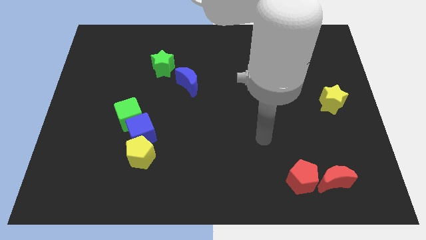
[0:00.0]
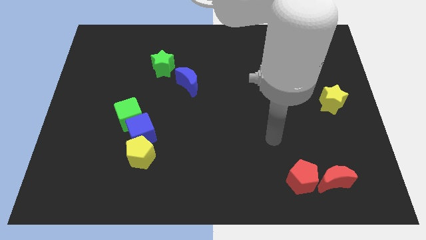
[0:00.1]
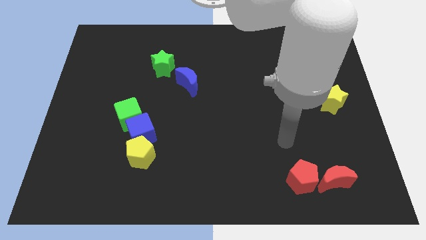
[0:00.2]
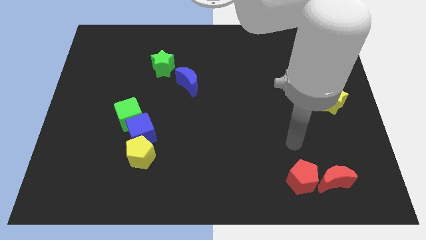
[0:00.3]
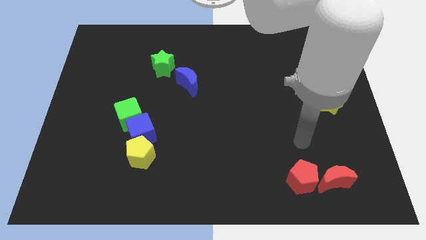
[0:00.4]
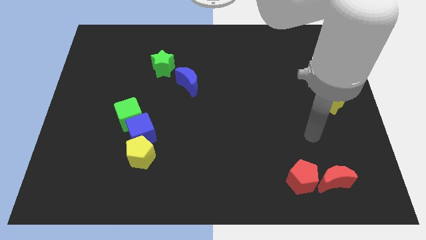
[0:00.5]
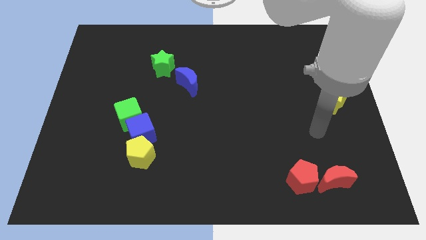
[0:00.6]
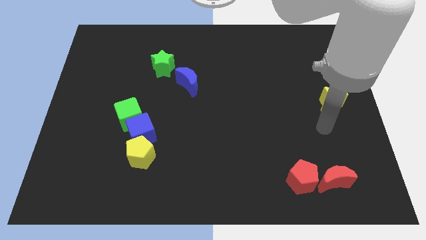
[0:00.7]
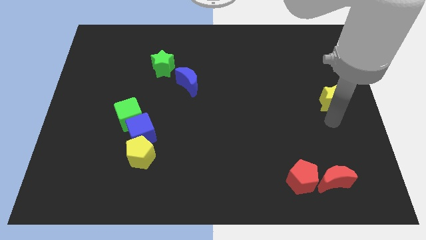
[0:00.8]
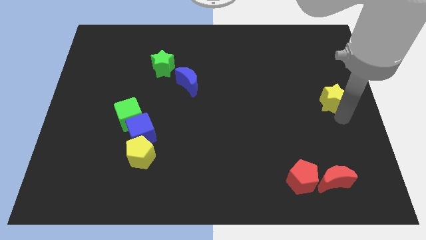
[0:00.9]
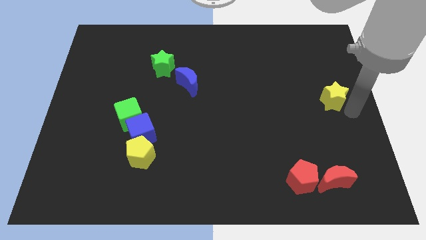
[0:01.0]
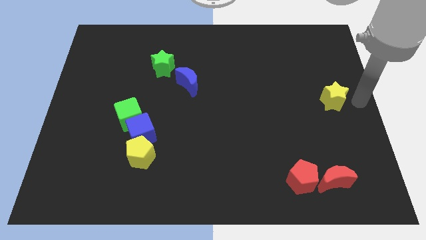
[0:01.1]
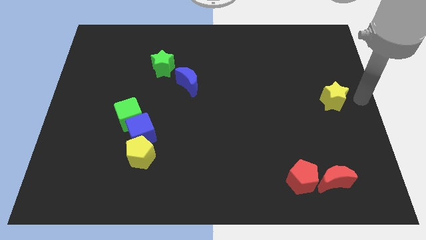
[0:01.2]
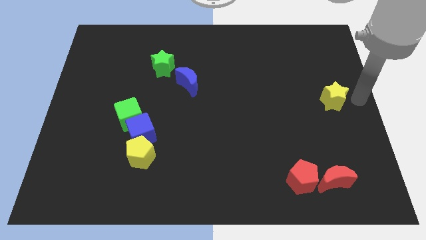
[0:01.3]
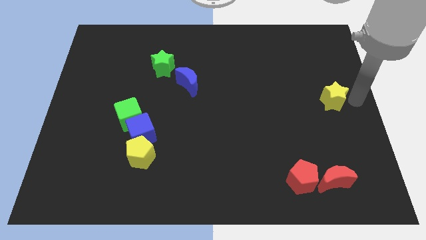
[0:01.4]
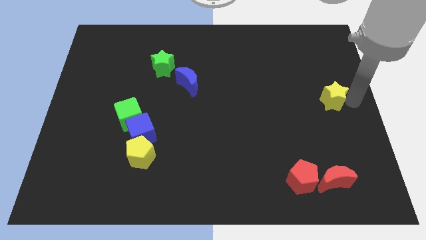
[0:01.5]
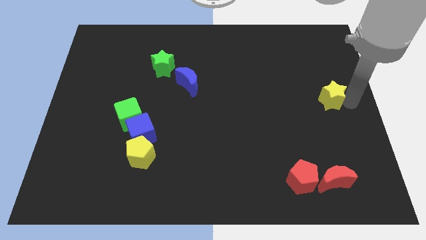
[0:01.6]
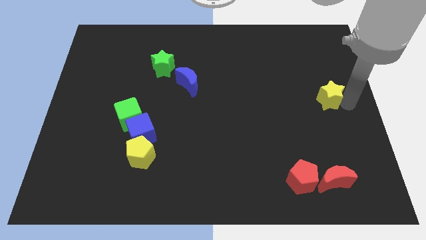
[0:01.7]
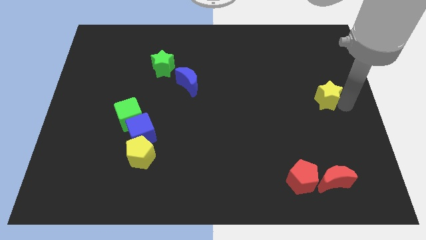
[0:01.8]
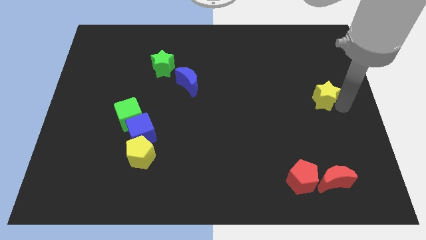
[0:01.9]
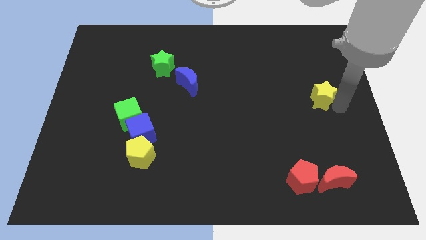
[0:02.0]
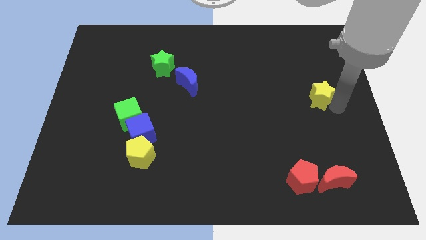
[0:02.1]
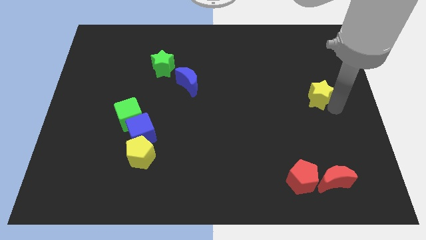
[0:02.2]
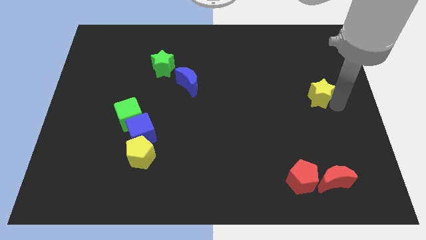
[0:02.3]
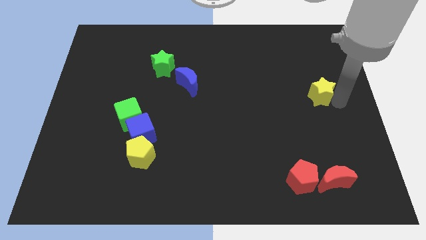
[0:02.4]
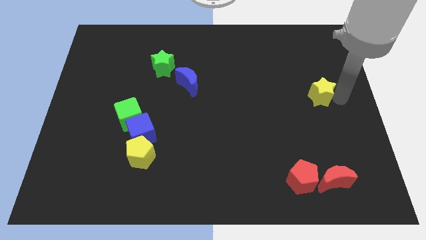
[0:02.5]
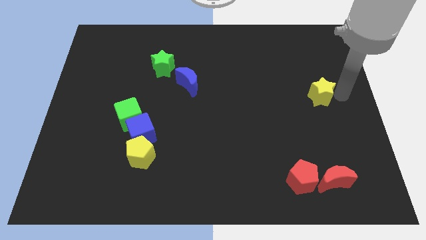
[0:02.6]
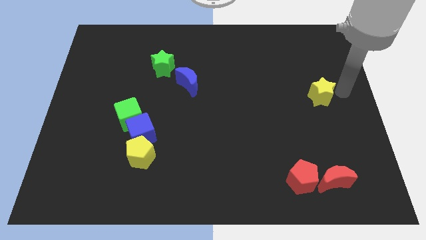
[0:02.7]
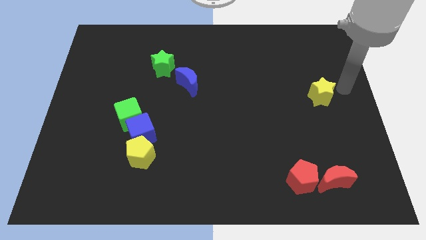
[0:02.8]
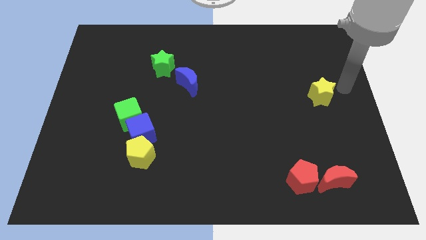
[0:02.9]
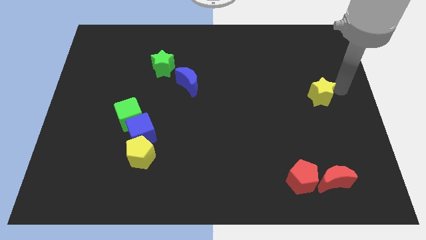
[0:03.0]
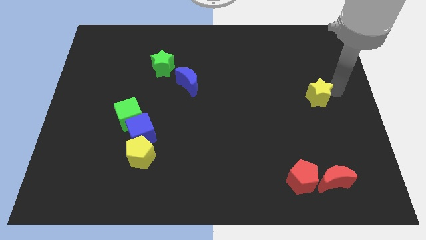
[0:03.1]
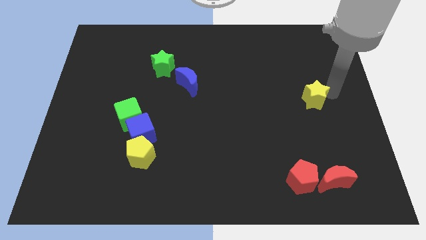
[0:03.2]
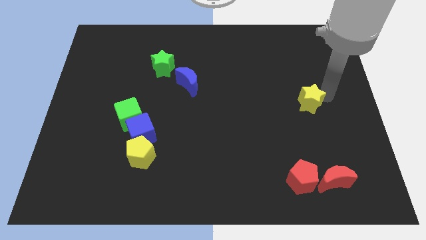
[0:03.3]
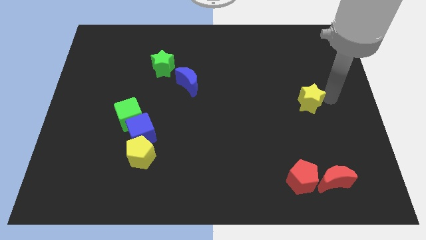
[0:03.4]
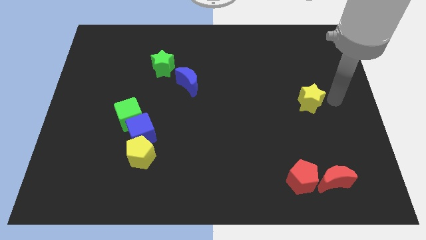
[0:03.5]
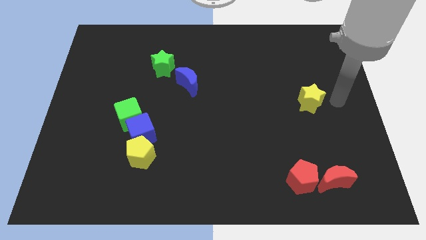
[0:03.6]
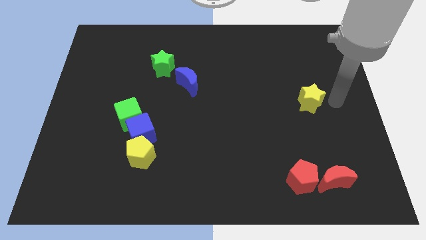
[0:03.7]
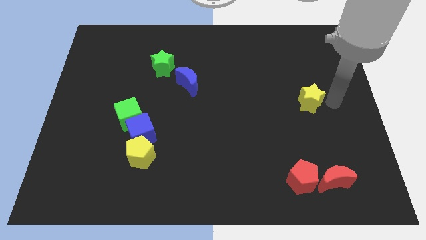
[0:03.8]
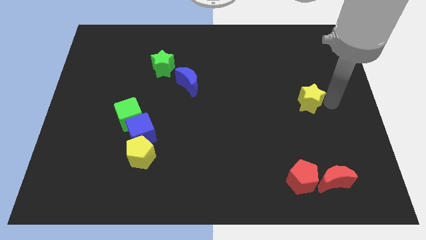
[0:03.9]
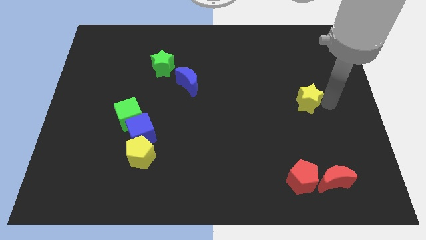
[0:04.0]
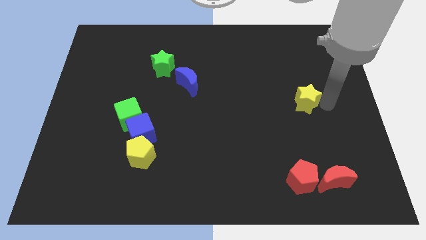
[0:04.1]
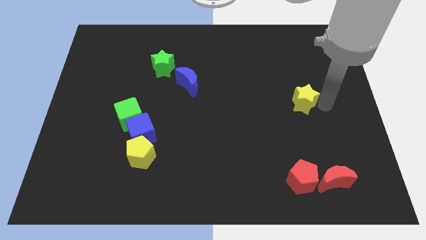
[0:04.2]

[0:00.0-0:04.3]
slightly push the yellow star left

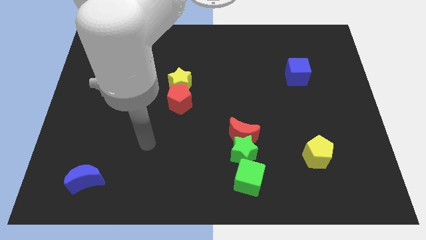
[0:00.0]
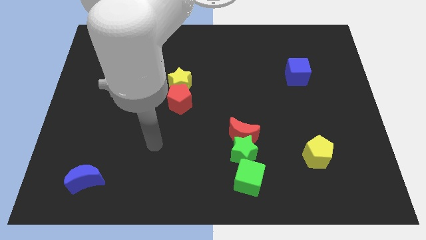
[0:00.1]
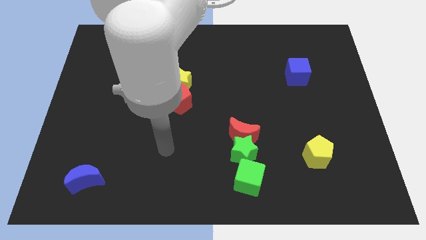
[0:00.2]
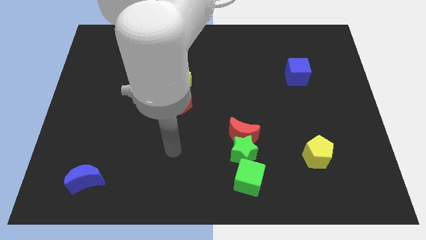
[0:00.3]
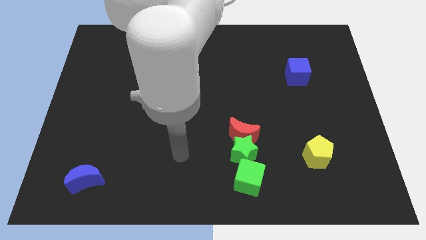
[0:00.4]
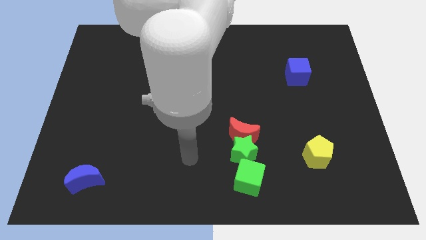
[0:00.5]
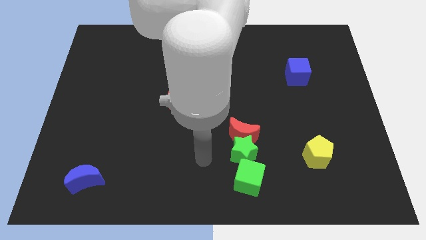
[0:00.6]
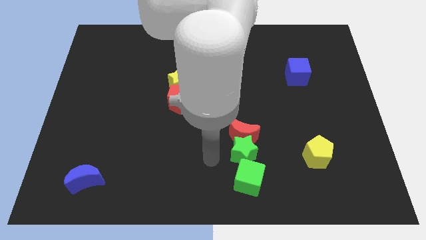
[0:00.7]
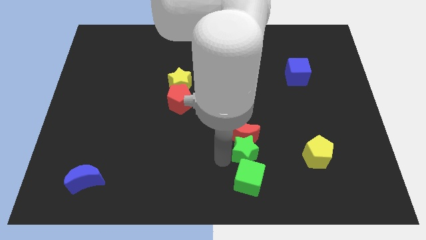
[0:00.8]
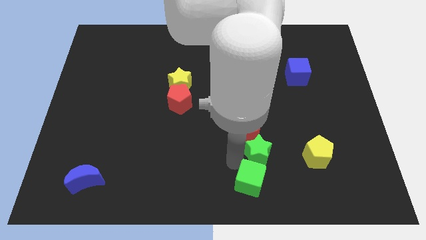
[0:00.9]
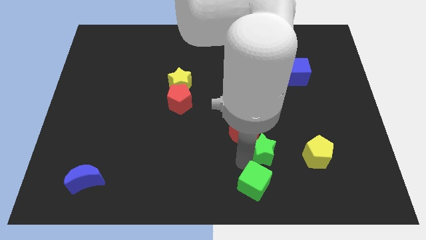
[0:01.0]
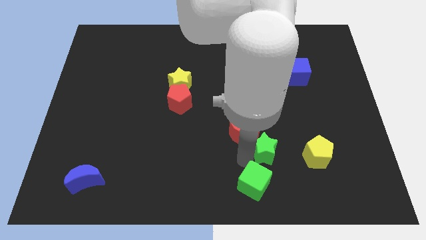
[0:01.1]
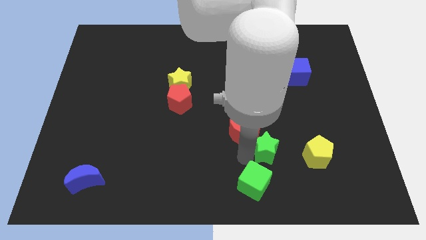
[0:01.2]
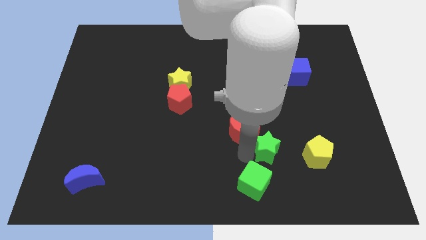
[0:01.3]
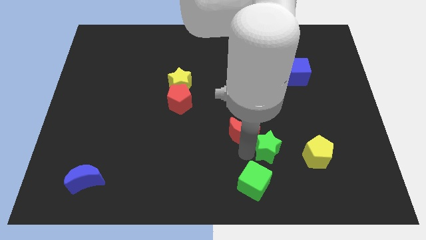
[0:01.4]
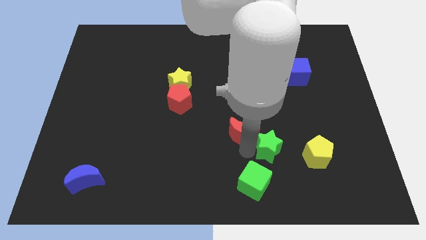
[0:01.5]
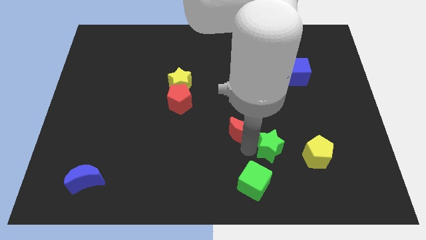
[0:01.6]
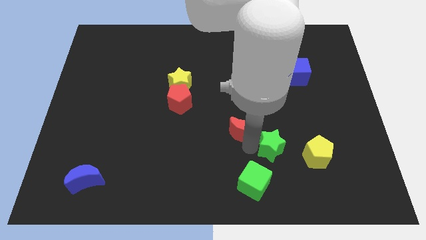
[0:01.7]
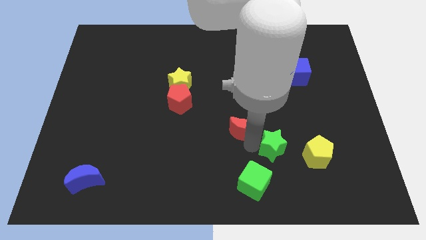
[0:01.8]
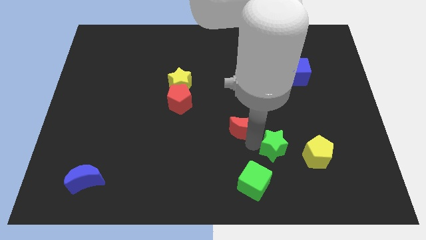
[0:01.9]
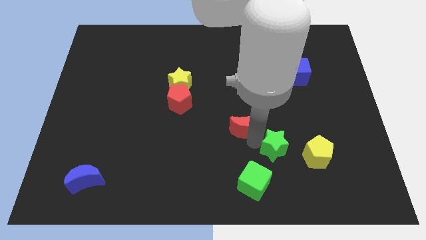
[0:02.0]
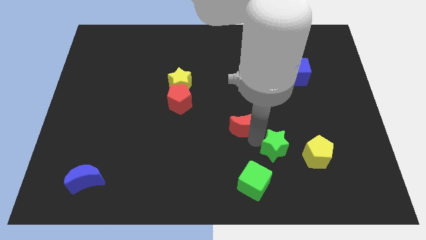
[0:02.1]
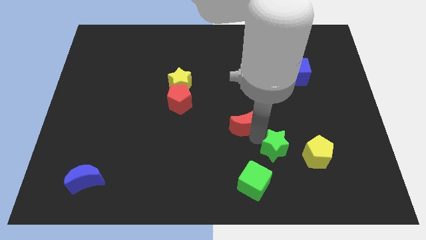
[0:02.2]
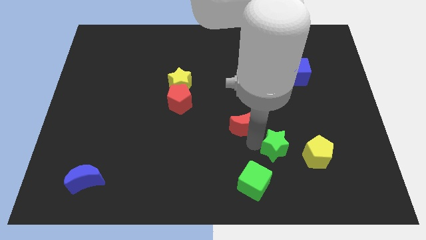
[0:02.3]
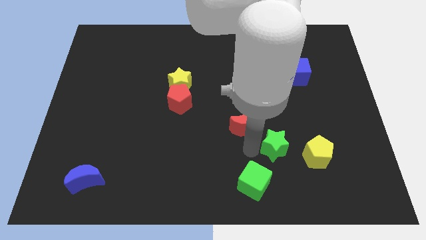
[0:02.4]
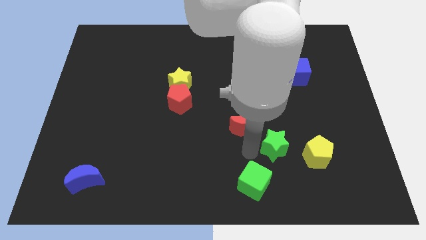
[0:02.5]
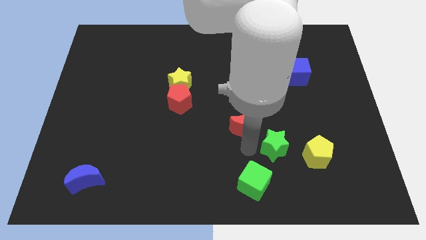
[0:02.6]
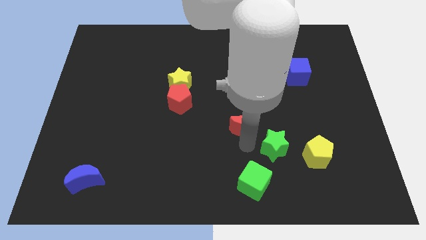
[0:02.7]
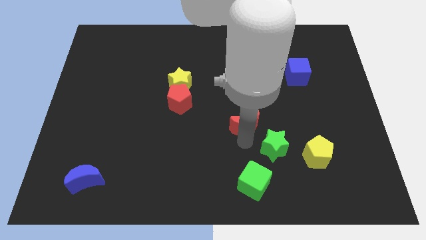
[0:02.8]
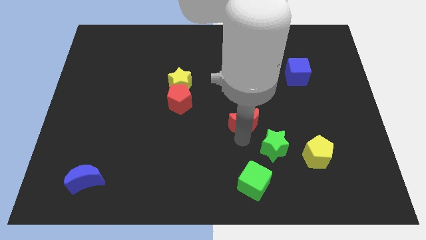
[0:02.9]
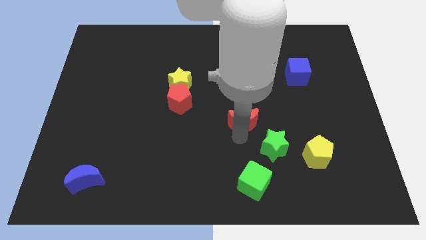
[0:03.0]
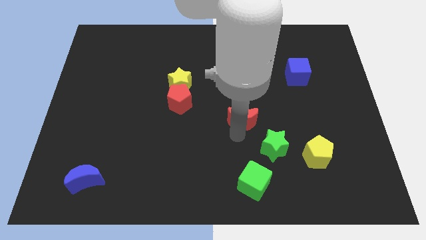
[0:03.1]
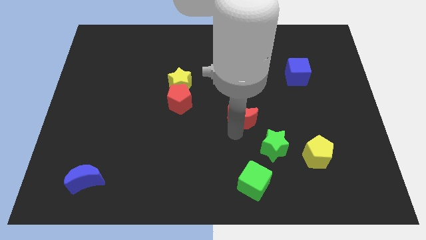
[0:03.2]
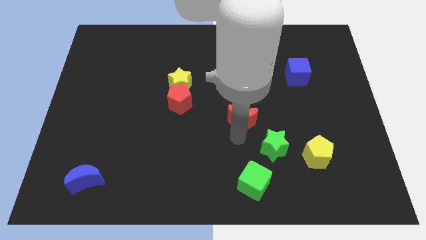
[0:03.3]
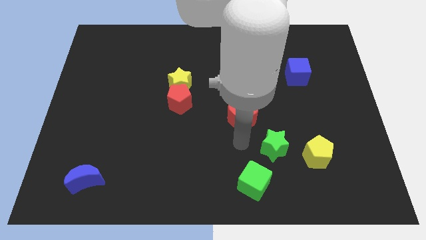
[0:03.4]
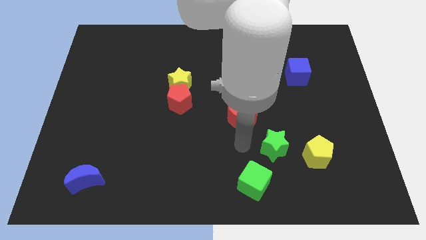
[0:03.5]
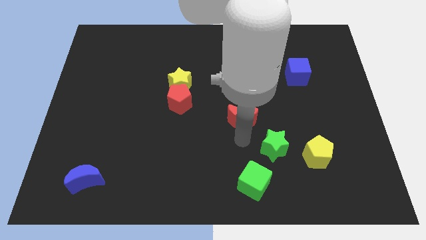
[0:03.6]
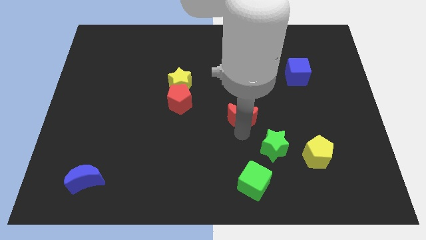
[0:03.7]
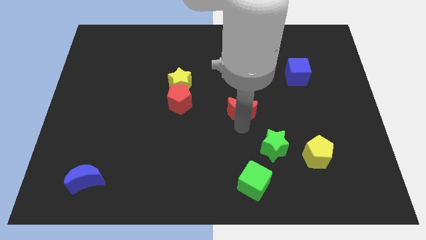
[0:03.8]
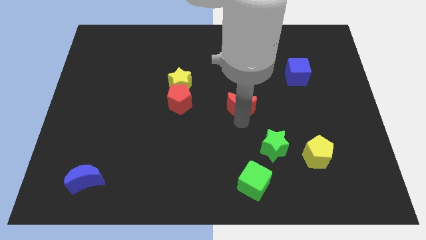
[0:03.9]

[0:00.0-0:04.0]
slide the red moon upwards a bit

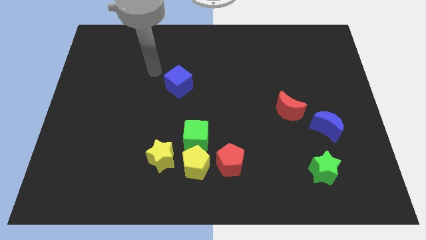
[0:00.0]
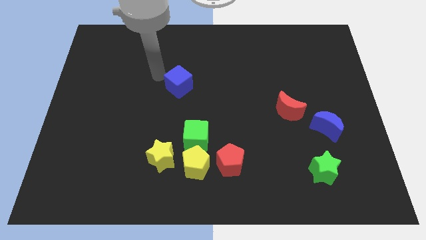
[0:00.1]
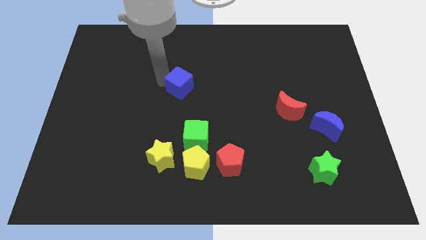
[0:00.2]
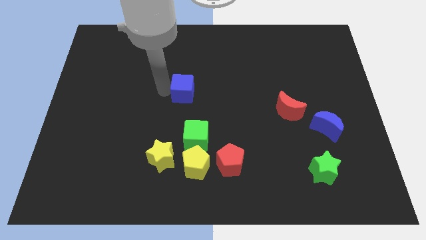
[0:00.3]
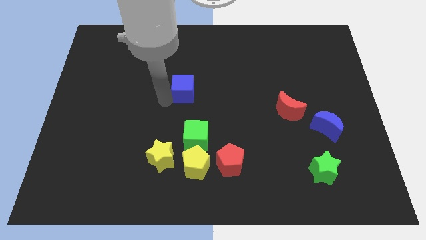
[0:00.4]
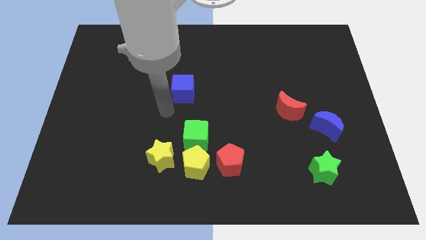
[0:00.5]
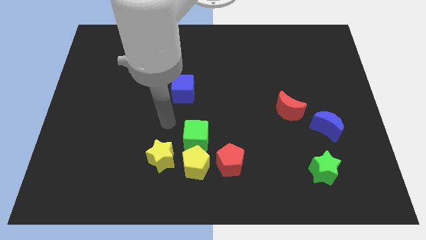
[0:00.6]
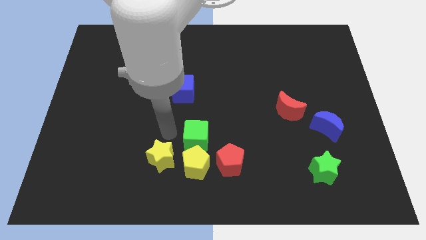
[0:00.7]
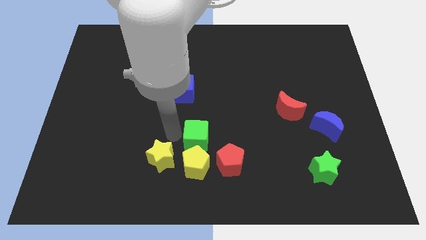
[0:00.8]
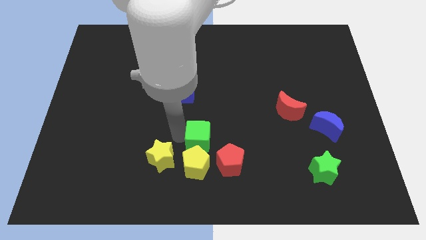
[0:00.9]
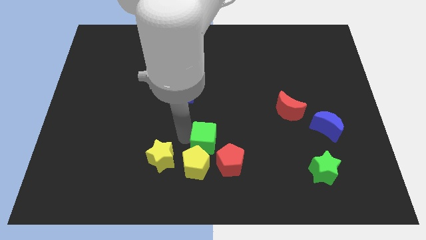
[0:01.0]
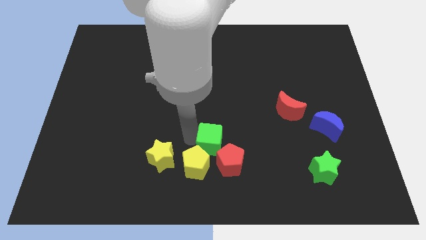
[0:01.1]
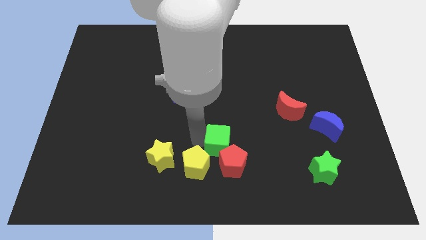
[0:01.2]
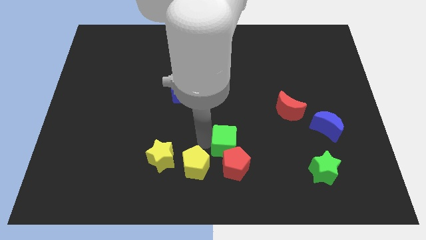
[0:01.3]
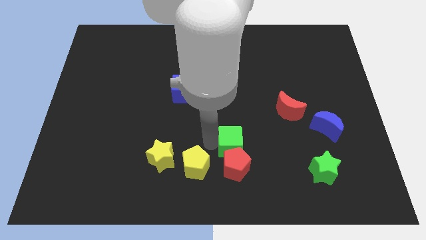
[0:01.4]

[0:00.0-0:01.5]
move the green cube a little right
